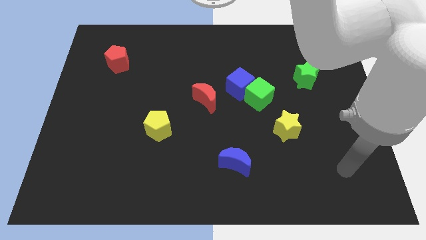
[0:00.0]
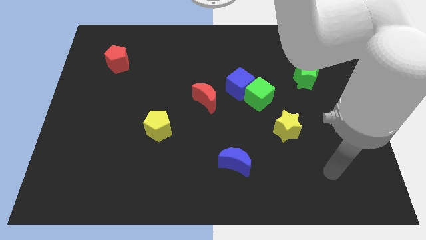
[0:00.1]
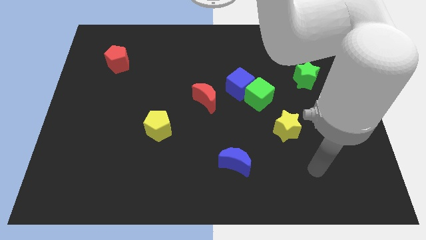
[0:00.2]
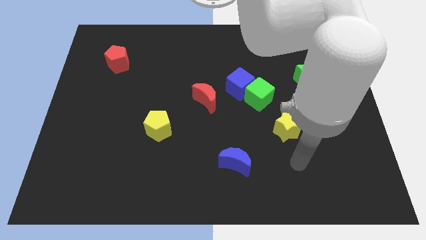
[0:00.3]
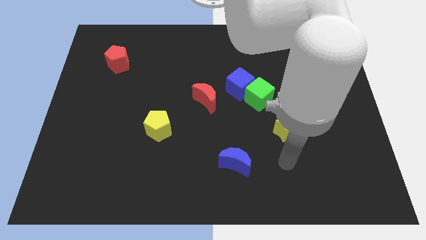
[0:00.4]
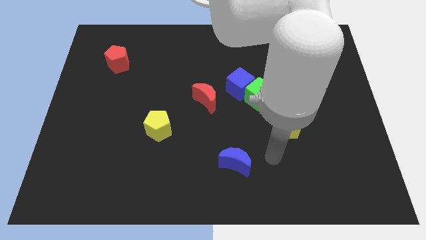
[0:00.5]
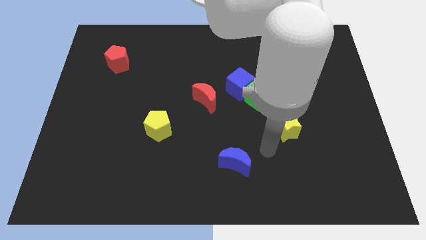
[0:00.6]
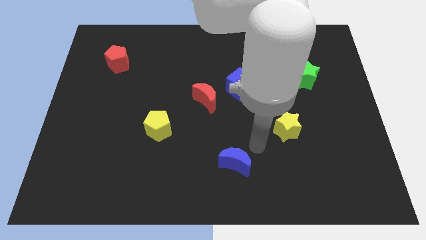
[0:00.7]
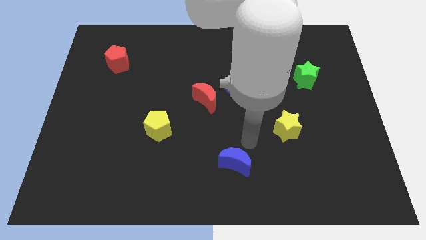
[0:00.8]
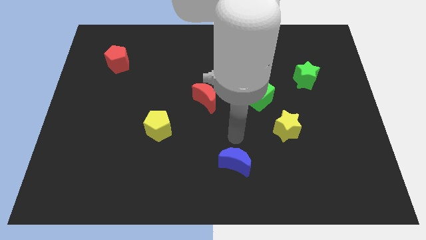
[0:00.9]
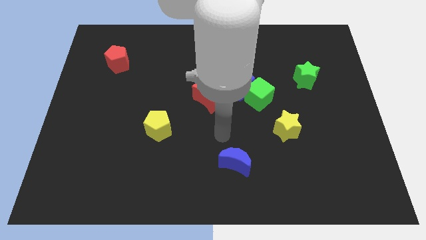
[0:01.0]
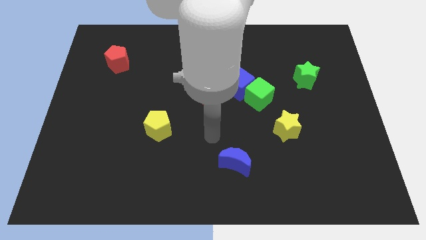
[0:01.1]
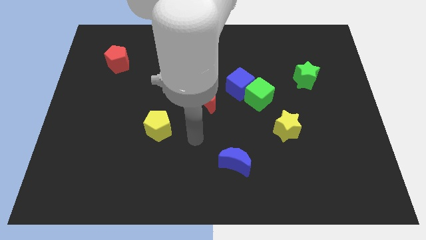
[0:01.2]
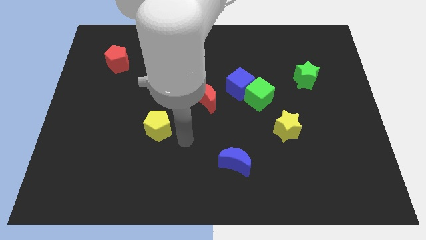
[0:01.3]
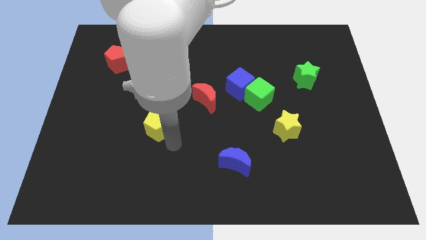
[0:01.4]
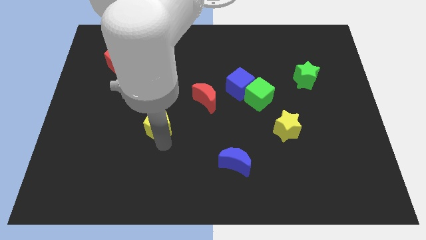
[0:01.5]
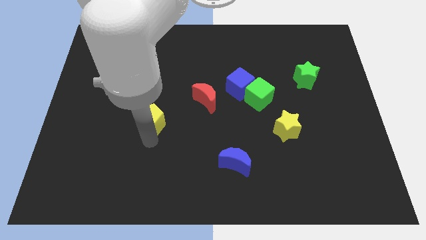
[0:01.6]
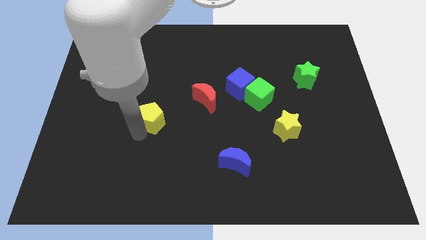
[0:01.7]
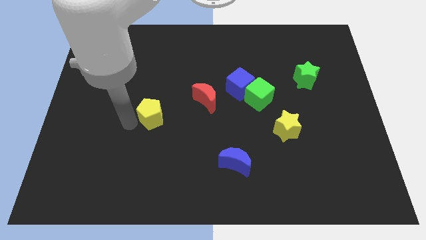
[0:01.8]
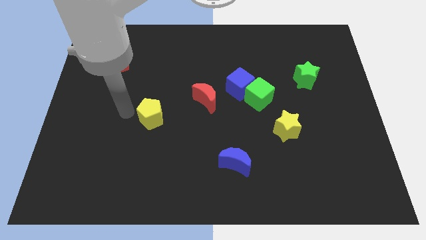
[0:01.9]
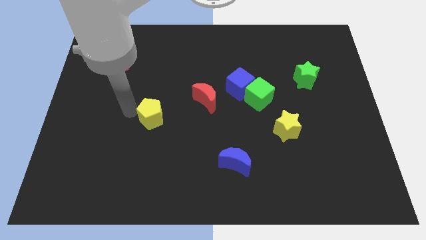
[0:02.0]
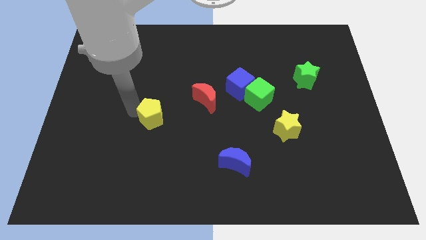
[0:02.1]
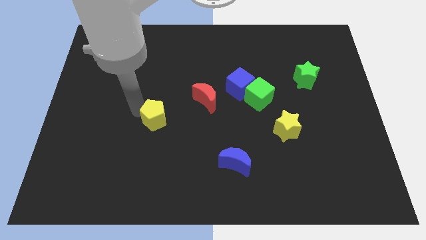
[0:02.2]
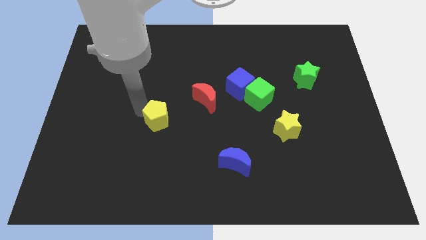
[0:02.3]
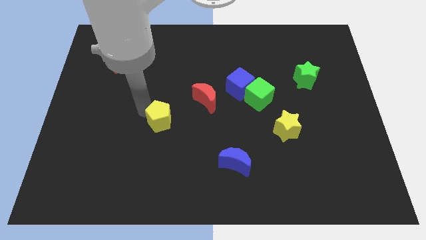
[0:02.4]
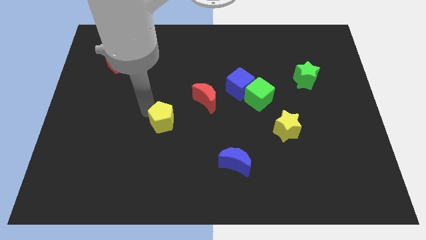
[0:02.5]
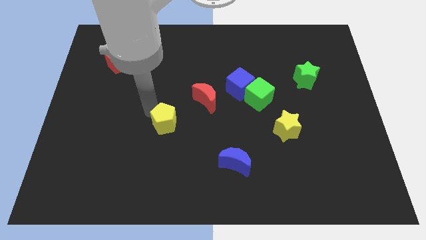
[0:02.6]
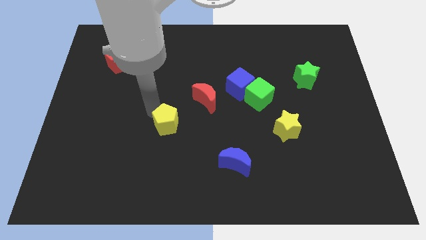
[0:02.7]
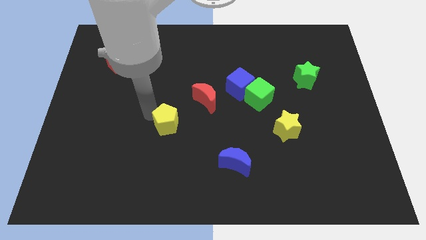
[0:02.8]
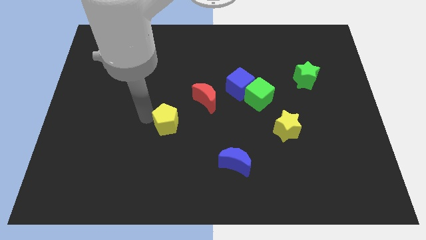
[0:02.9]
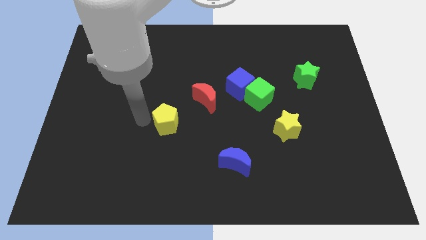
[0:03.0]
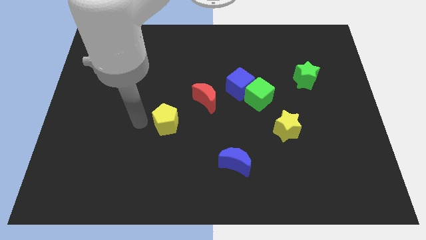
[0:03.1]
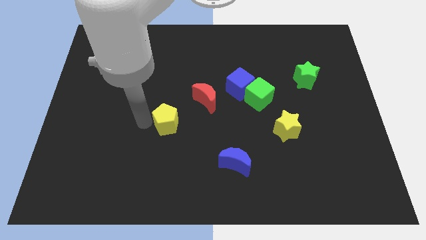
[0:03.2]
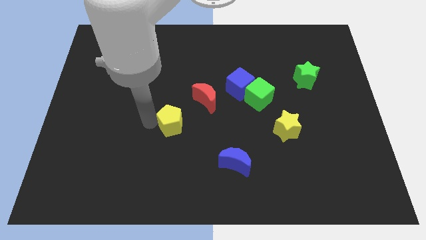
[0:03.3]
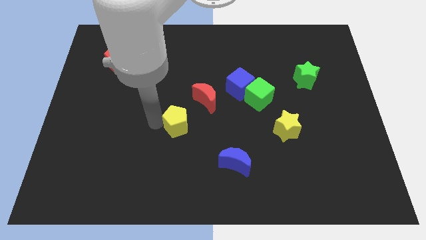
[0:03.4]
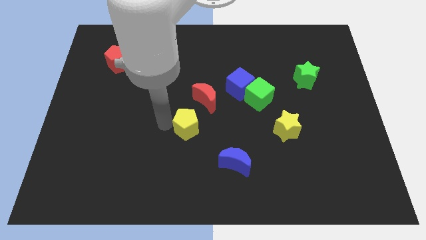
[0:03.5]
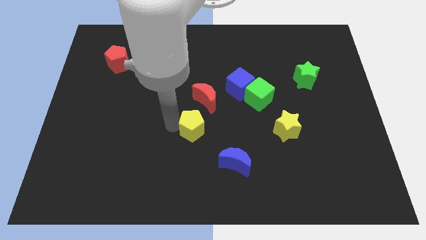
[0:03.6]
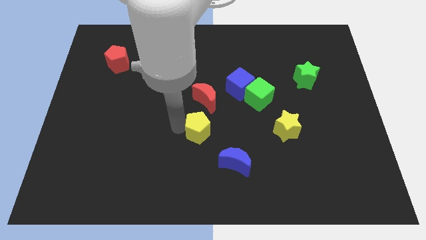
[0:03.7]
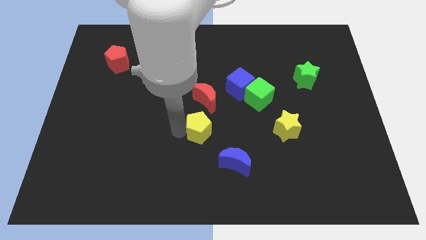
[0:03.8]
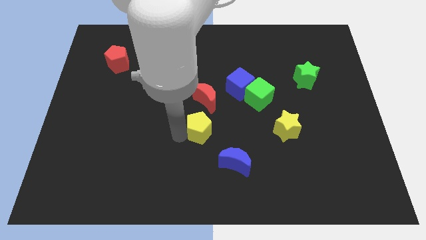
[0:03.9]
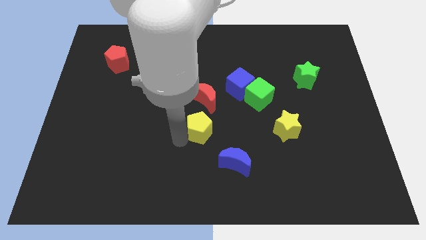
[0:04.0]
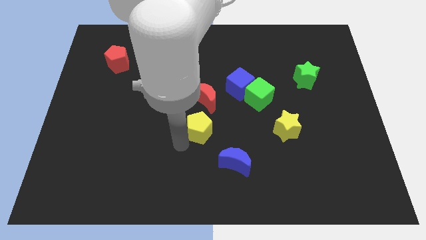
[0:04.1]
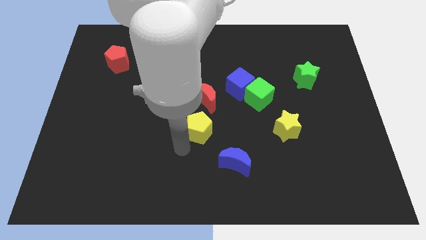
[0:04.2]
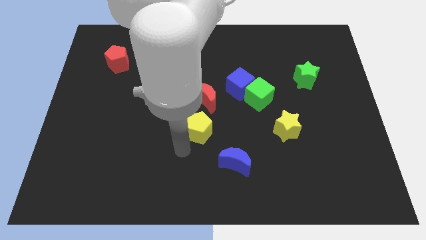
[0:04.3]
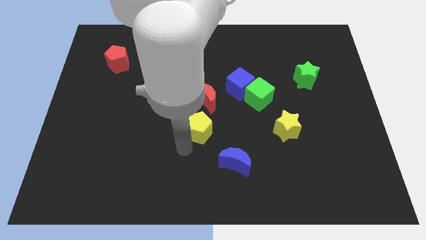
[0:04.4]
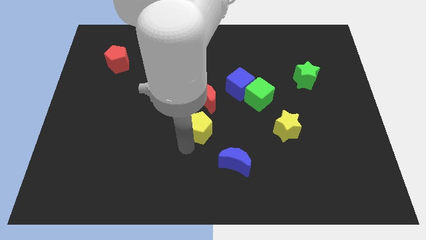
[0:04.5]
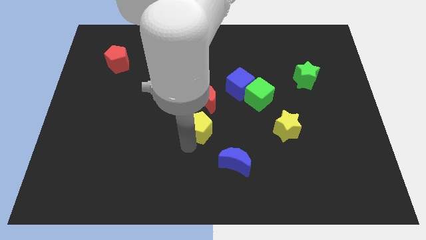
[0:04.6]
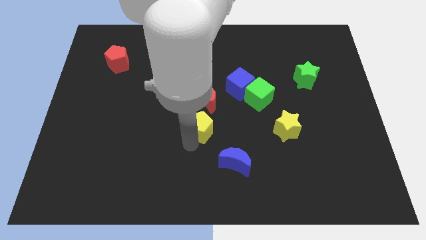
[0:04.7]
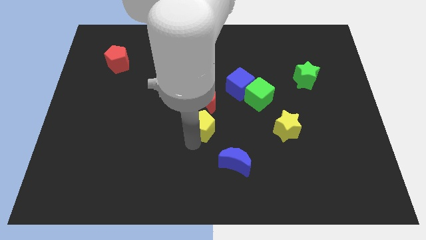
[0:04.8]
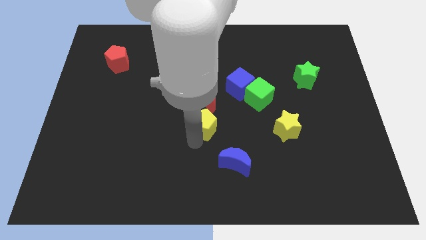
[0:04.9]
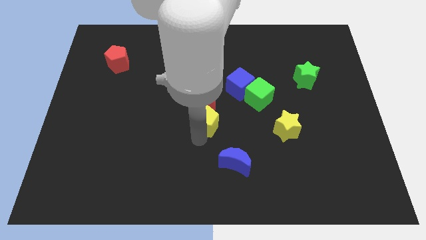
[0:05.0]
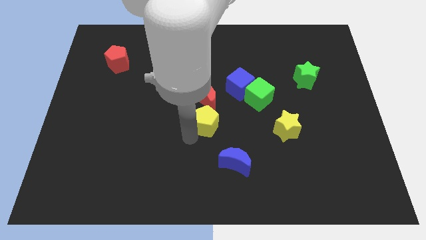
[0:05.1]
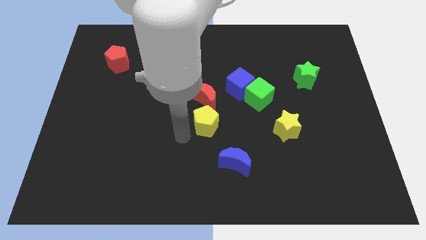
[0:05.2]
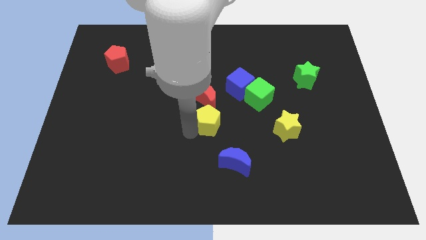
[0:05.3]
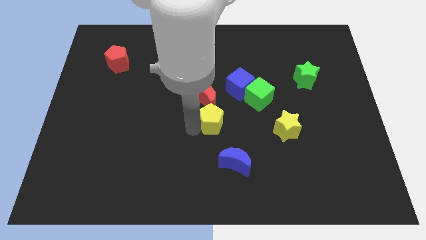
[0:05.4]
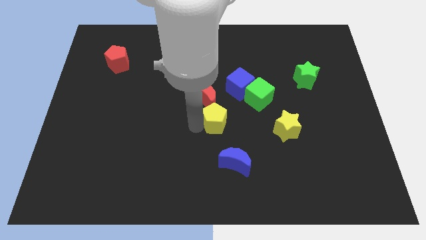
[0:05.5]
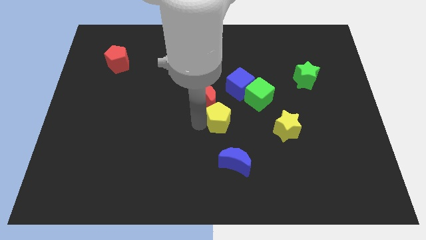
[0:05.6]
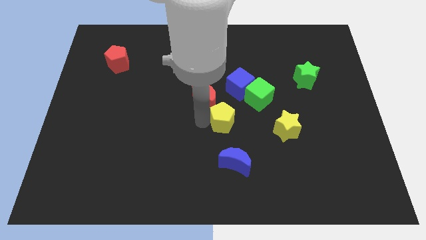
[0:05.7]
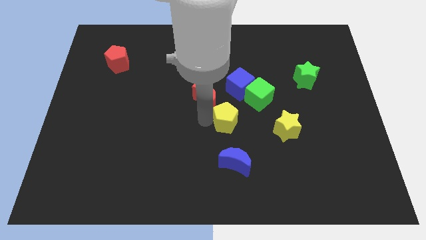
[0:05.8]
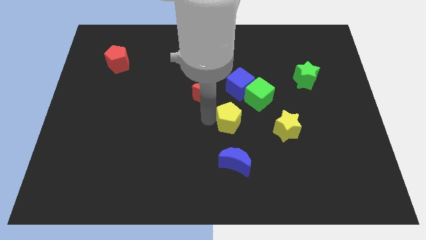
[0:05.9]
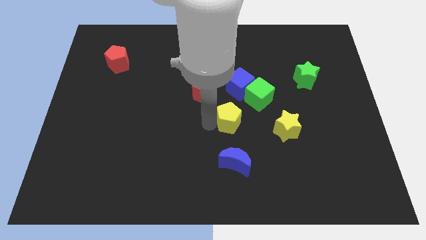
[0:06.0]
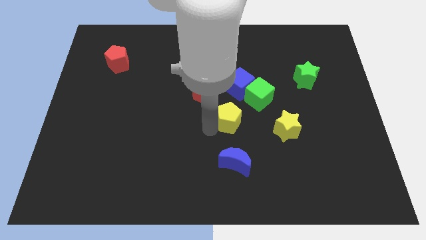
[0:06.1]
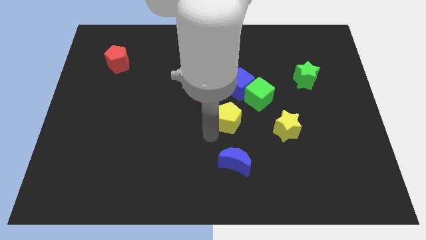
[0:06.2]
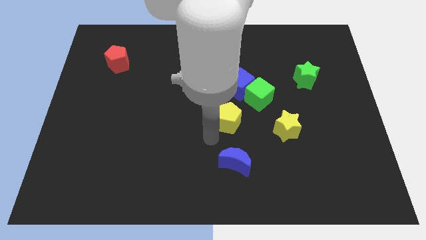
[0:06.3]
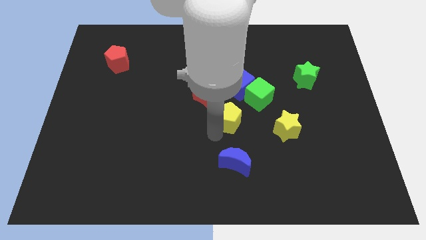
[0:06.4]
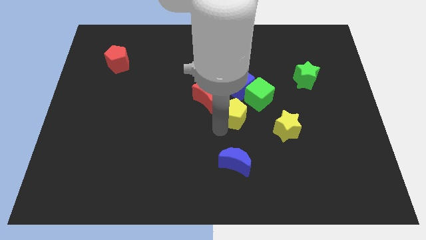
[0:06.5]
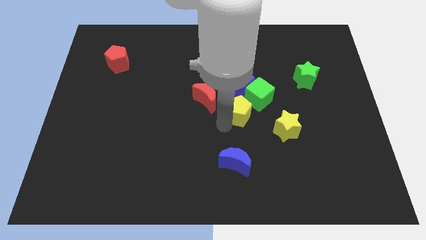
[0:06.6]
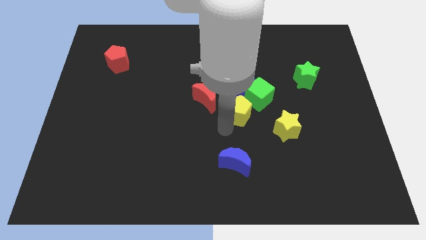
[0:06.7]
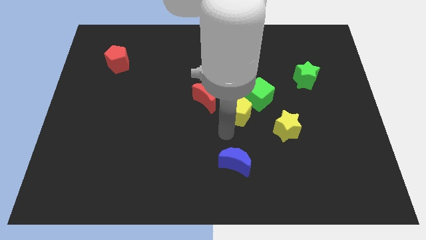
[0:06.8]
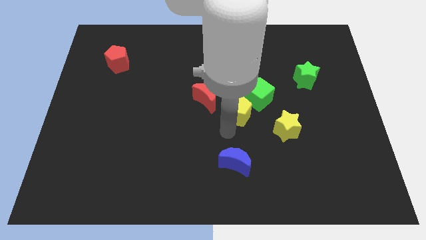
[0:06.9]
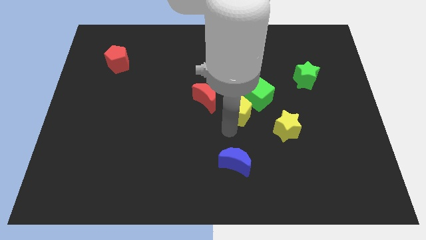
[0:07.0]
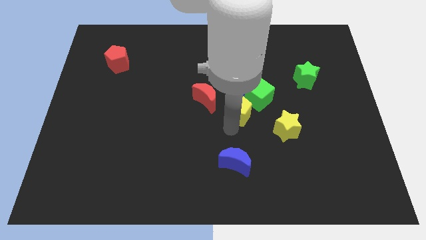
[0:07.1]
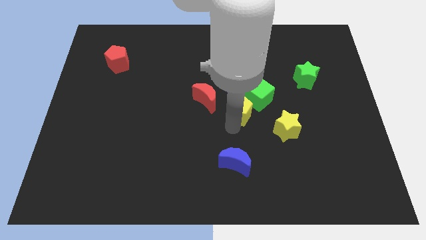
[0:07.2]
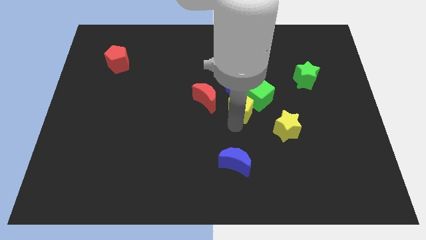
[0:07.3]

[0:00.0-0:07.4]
push the yellow pentagon next to the green cube

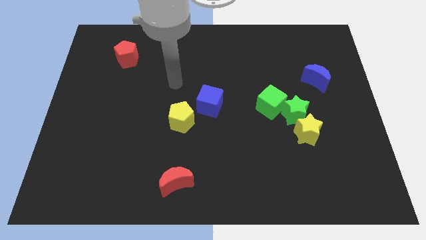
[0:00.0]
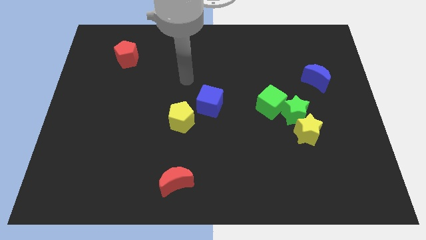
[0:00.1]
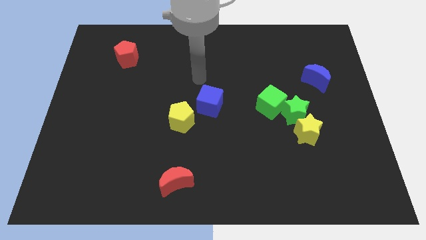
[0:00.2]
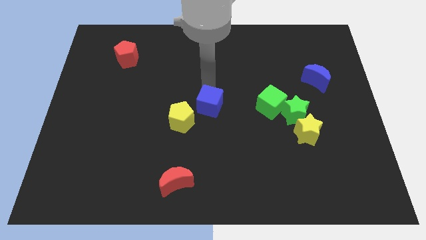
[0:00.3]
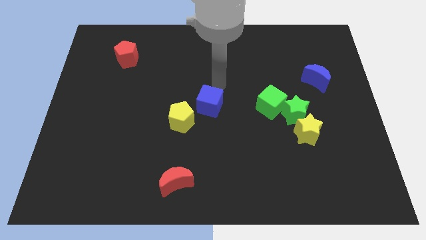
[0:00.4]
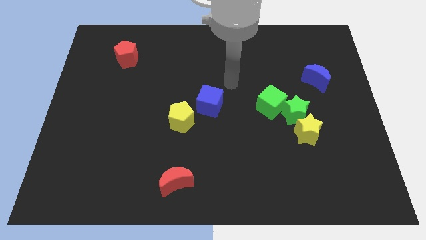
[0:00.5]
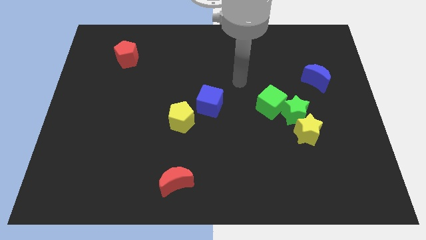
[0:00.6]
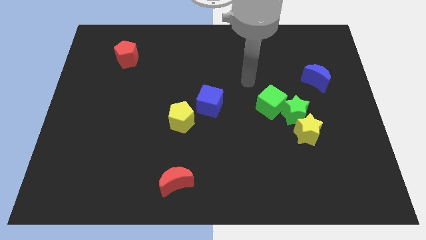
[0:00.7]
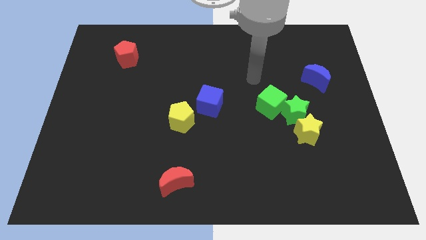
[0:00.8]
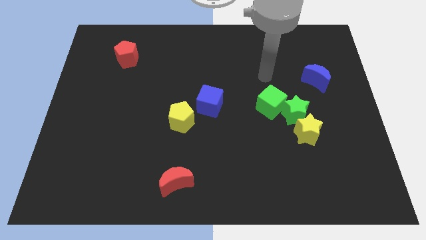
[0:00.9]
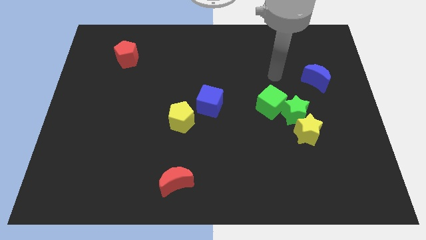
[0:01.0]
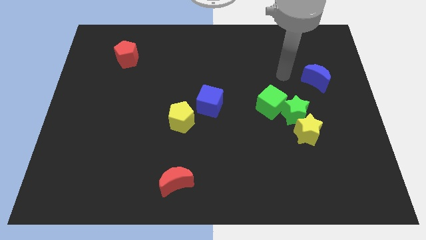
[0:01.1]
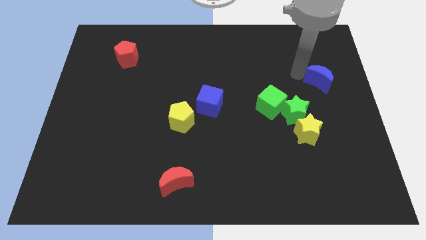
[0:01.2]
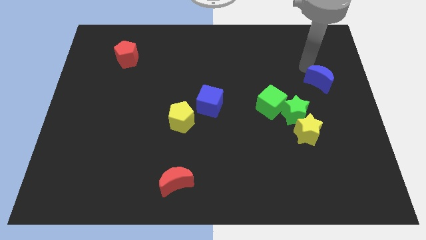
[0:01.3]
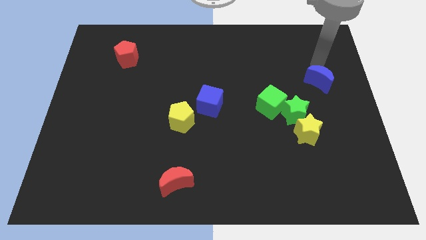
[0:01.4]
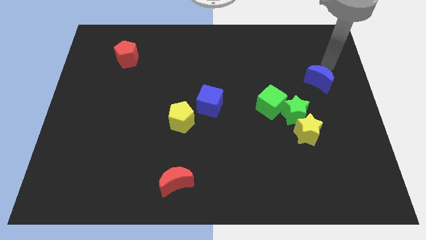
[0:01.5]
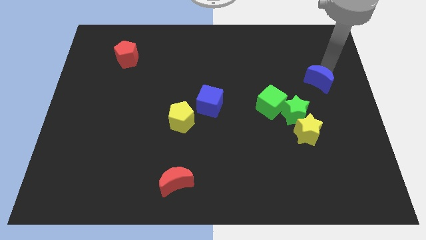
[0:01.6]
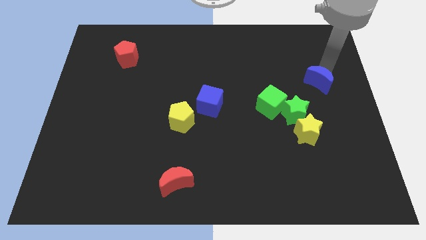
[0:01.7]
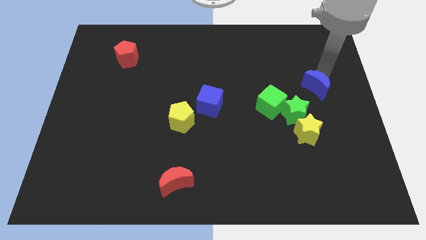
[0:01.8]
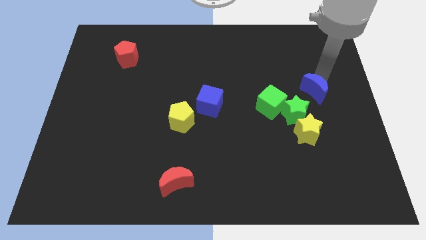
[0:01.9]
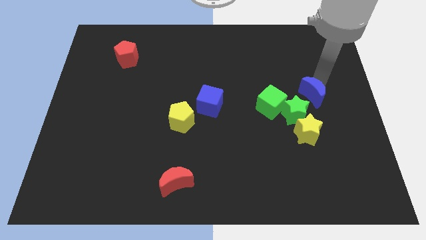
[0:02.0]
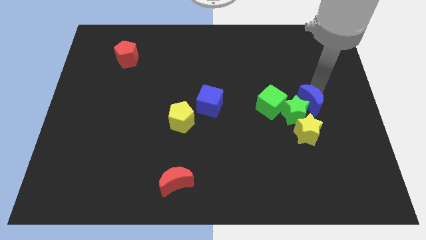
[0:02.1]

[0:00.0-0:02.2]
push the blue moon to the green star
